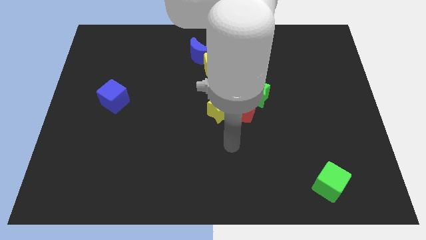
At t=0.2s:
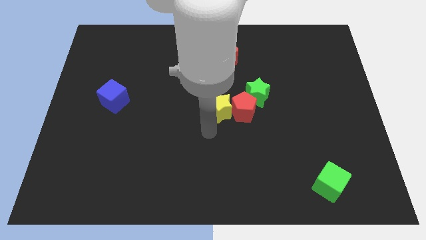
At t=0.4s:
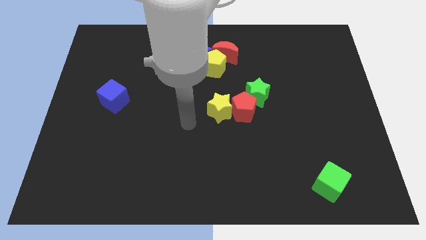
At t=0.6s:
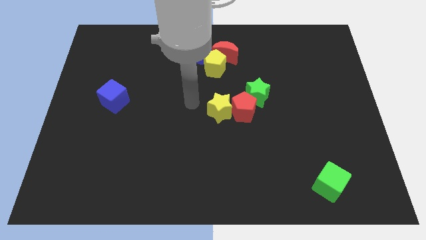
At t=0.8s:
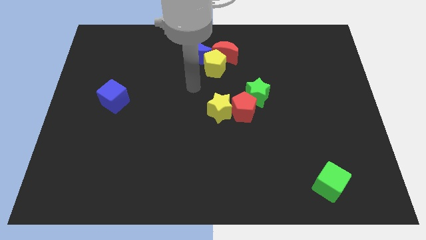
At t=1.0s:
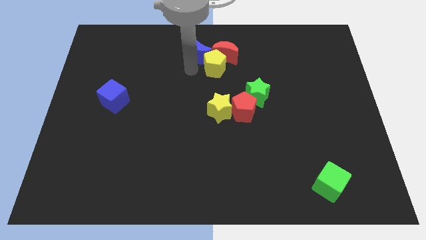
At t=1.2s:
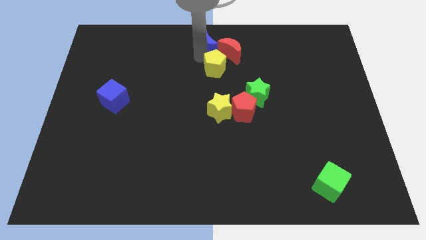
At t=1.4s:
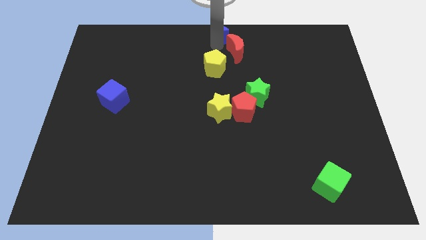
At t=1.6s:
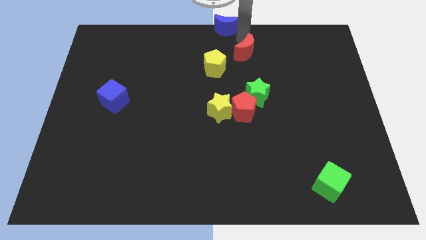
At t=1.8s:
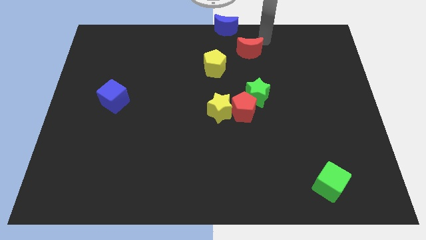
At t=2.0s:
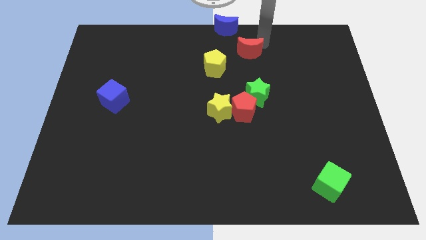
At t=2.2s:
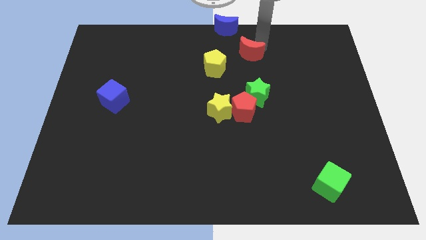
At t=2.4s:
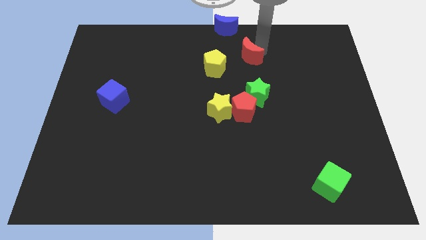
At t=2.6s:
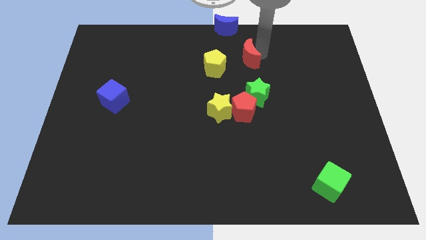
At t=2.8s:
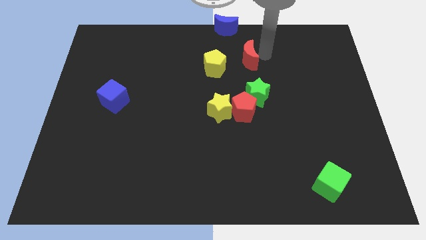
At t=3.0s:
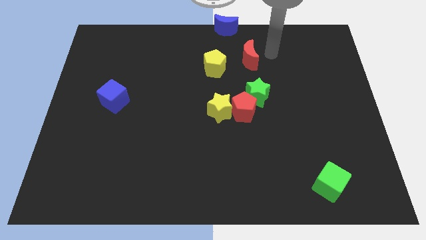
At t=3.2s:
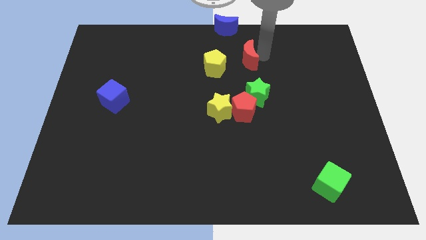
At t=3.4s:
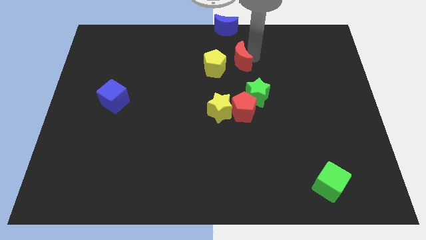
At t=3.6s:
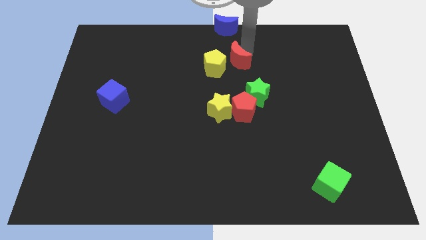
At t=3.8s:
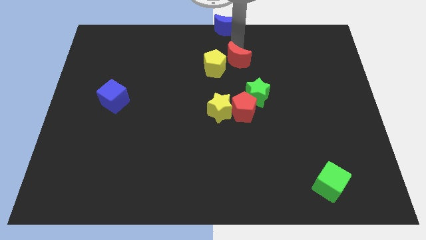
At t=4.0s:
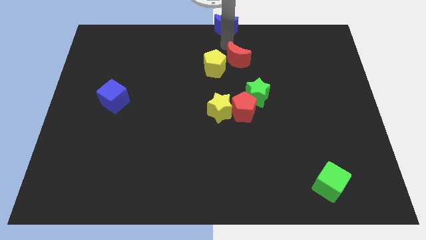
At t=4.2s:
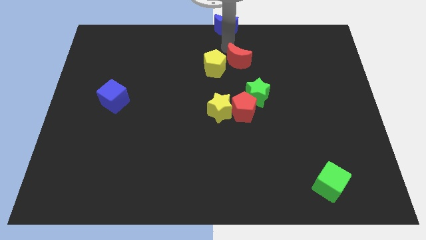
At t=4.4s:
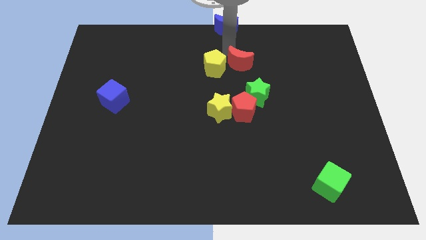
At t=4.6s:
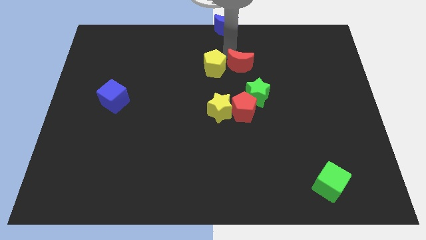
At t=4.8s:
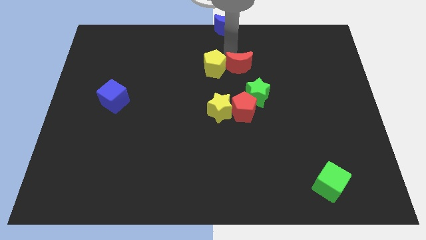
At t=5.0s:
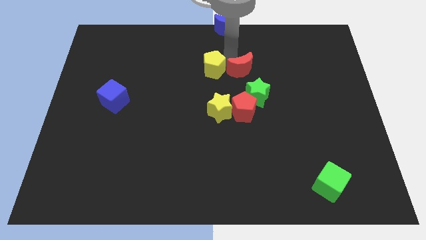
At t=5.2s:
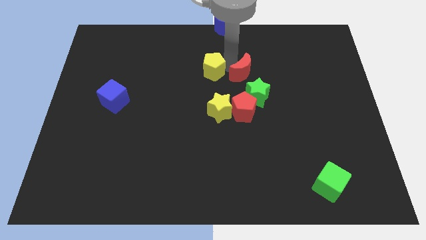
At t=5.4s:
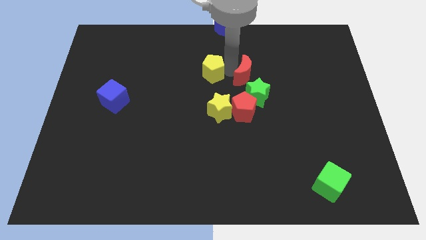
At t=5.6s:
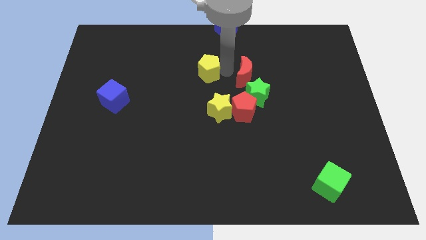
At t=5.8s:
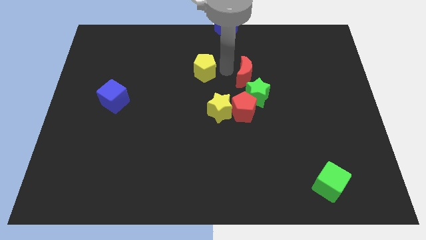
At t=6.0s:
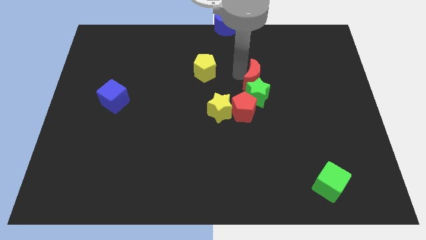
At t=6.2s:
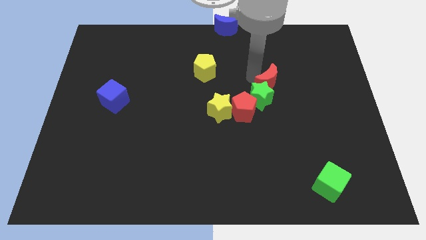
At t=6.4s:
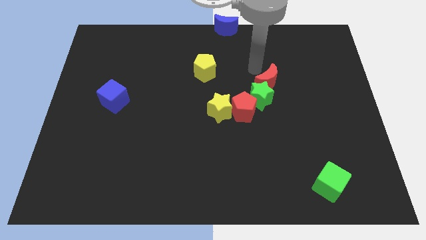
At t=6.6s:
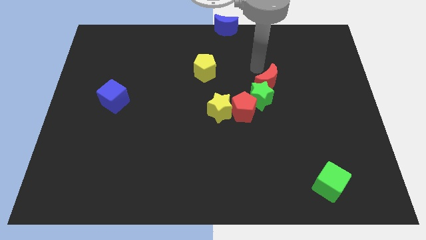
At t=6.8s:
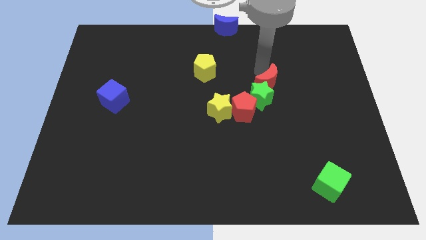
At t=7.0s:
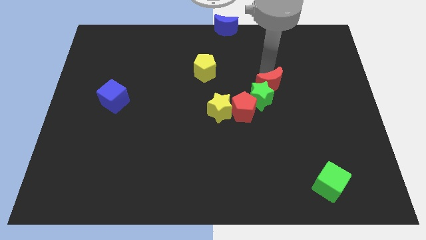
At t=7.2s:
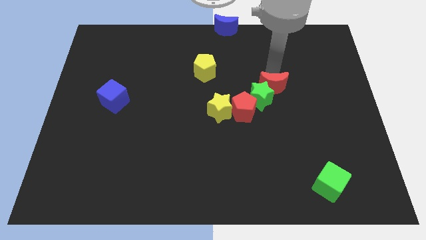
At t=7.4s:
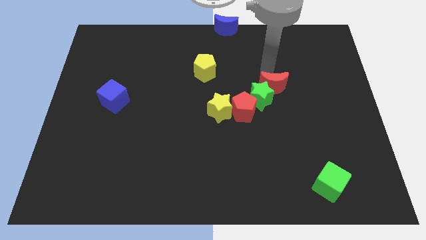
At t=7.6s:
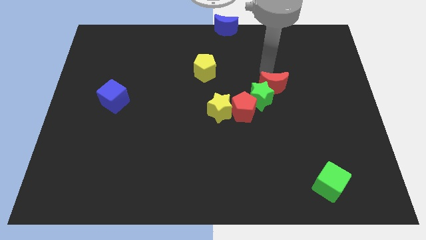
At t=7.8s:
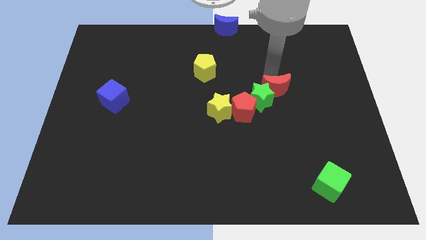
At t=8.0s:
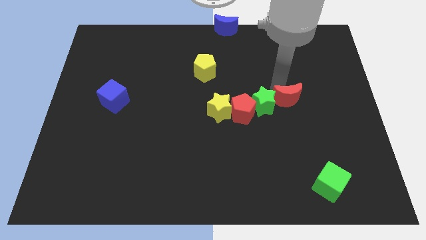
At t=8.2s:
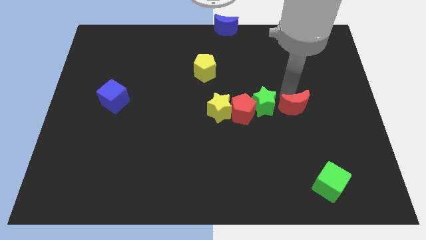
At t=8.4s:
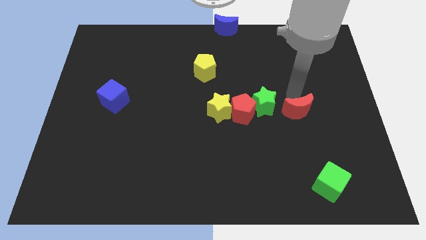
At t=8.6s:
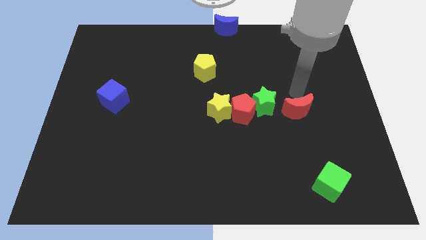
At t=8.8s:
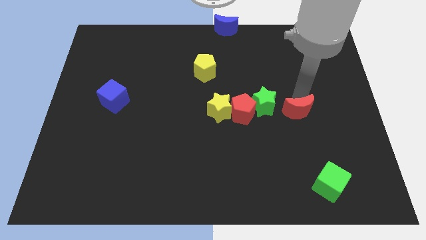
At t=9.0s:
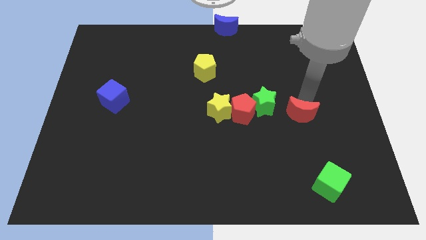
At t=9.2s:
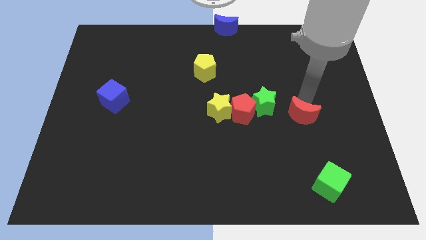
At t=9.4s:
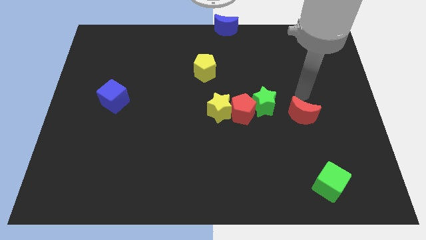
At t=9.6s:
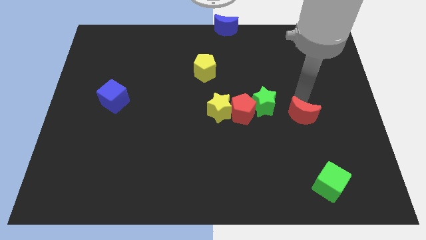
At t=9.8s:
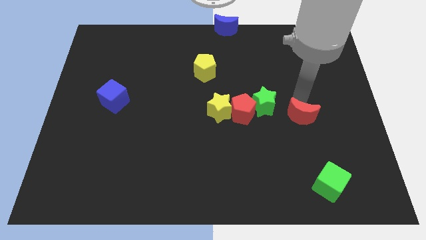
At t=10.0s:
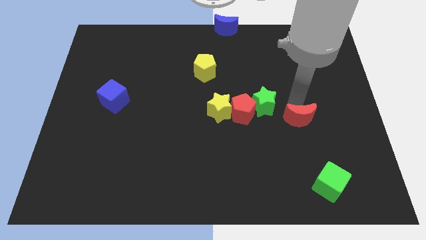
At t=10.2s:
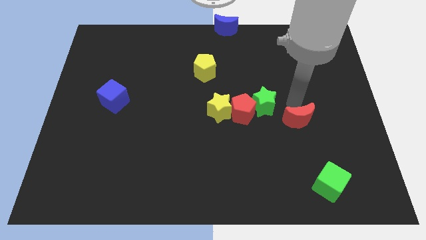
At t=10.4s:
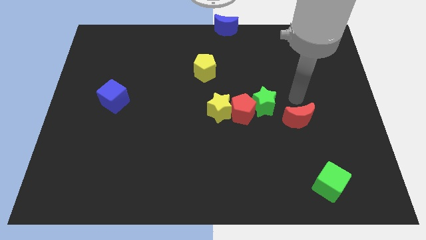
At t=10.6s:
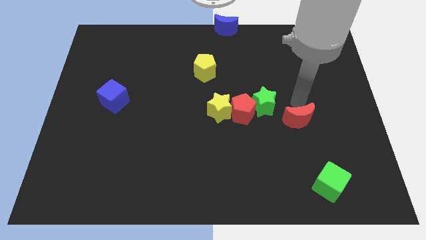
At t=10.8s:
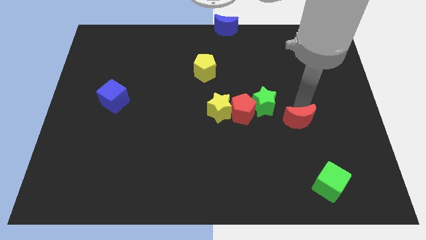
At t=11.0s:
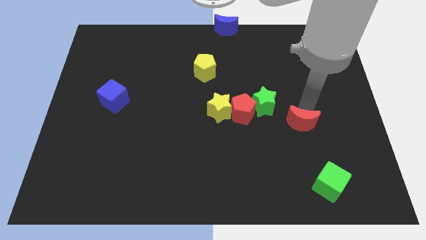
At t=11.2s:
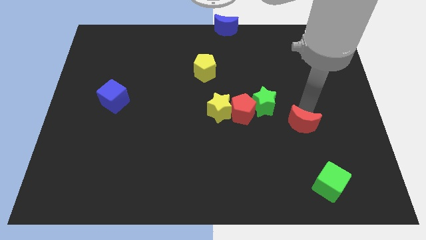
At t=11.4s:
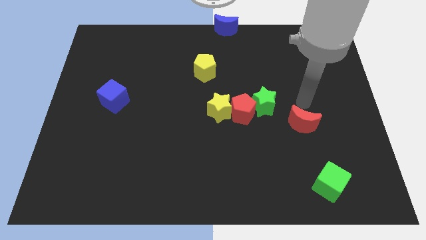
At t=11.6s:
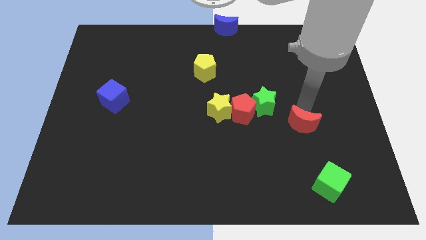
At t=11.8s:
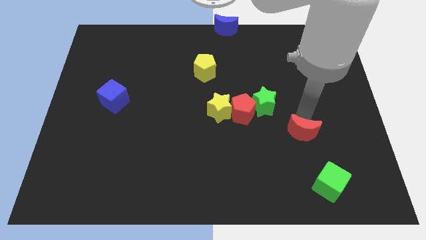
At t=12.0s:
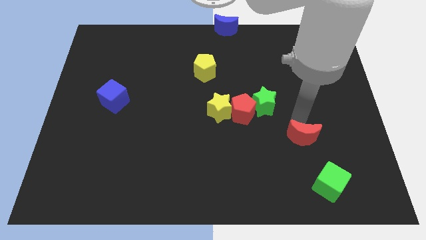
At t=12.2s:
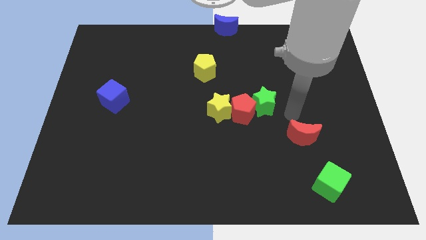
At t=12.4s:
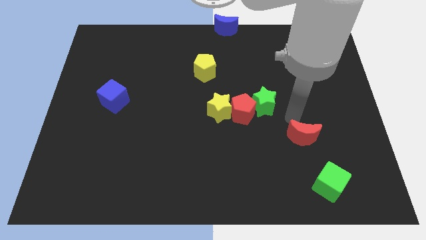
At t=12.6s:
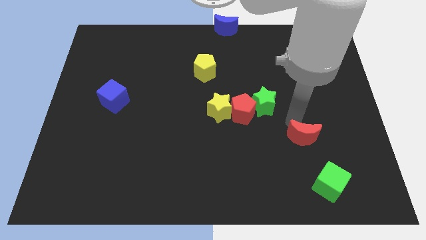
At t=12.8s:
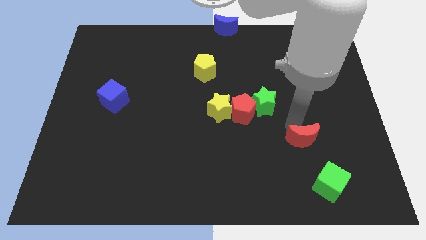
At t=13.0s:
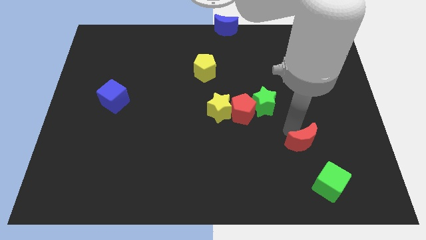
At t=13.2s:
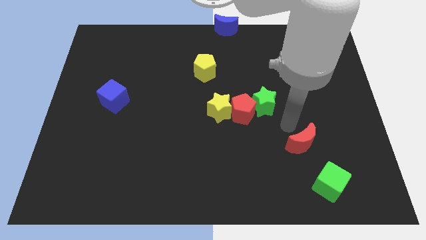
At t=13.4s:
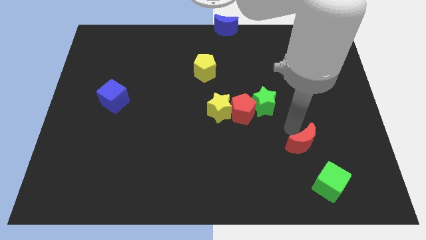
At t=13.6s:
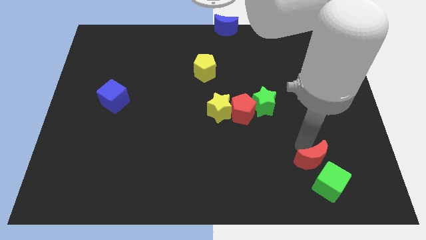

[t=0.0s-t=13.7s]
put the red moon close to the green cube

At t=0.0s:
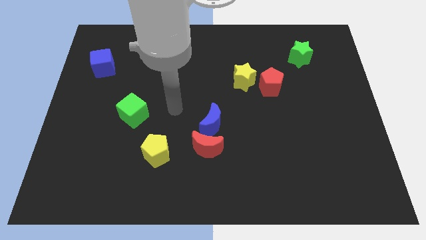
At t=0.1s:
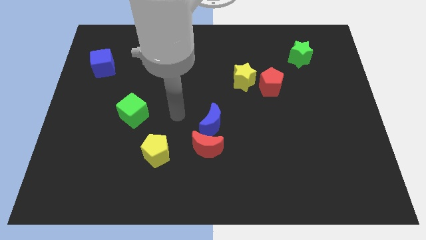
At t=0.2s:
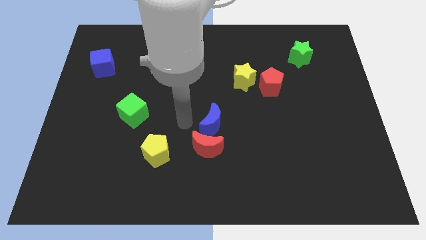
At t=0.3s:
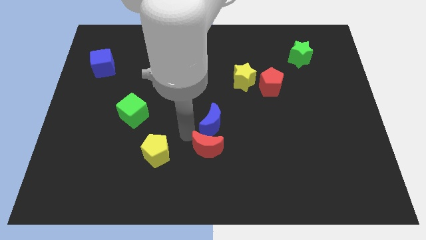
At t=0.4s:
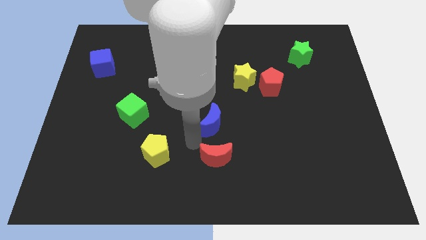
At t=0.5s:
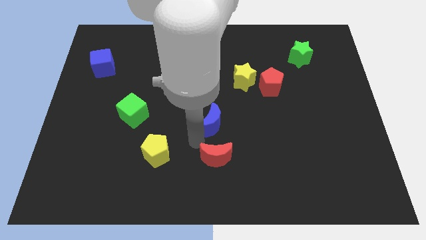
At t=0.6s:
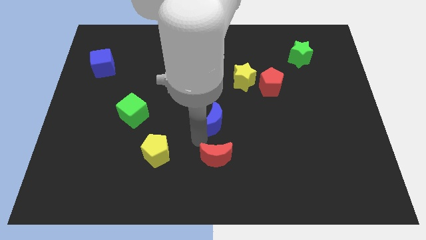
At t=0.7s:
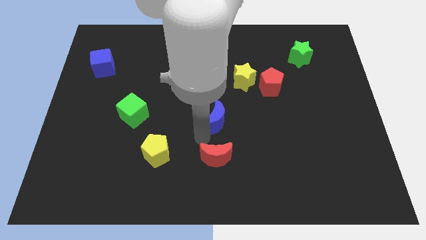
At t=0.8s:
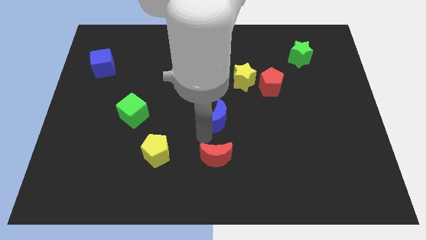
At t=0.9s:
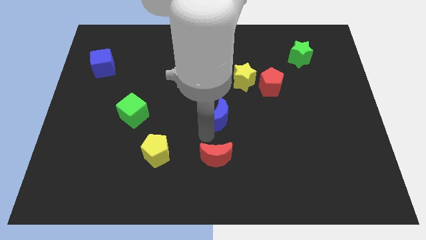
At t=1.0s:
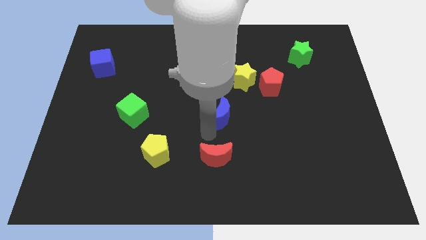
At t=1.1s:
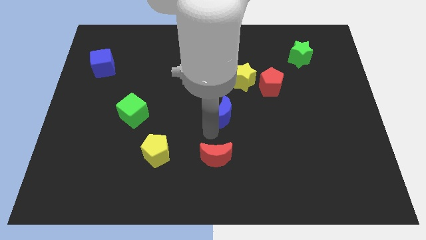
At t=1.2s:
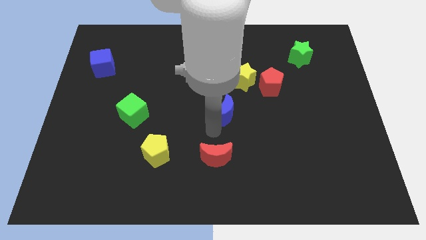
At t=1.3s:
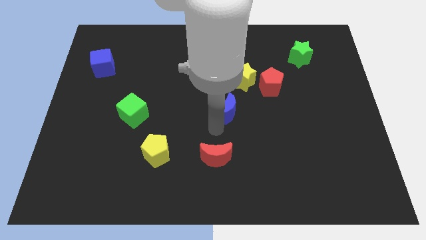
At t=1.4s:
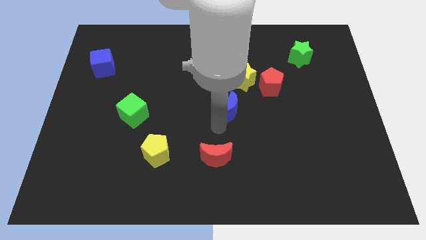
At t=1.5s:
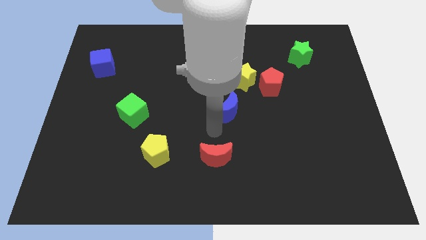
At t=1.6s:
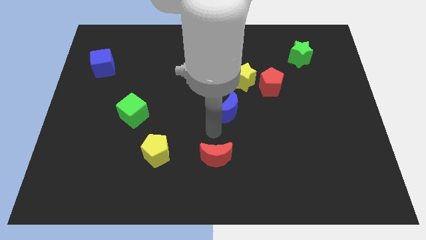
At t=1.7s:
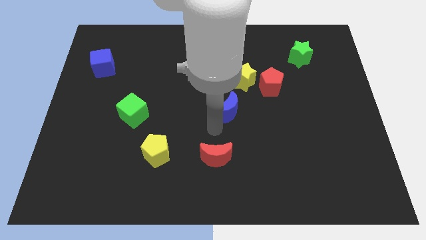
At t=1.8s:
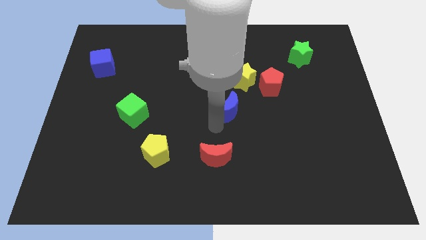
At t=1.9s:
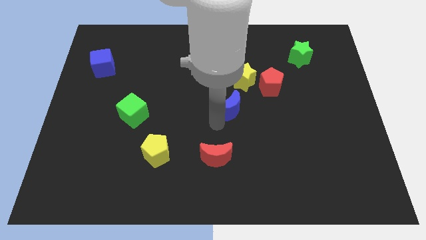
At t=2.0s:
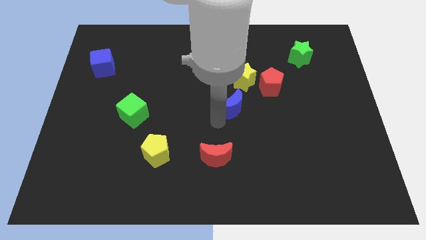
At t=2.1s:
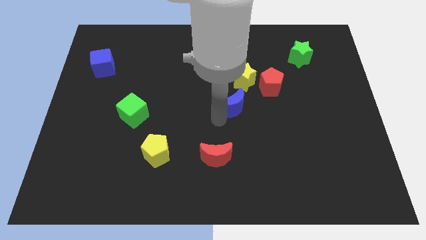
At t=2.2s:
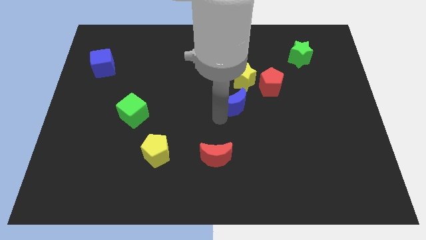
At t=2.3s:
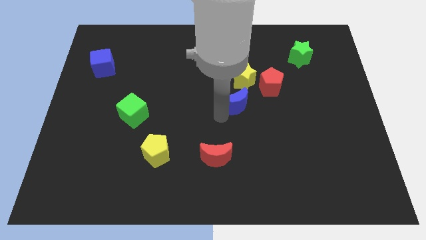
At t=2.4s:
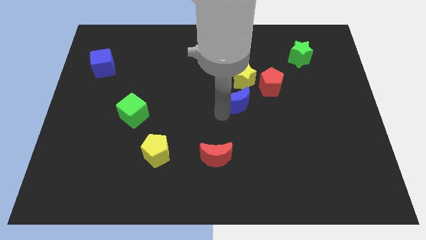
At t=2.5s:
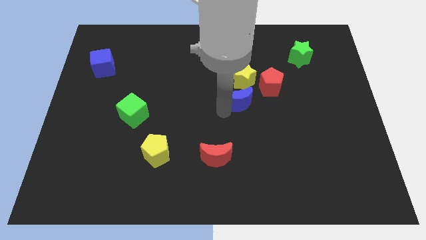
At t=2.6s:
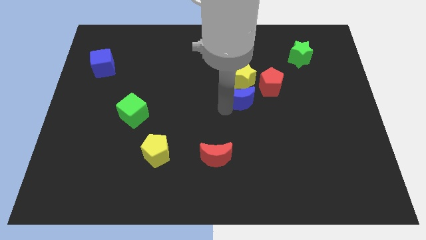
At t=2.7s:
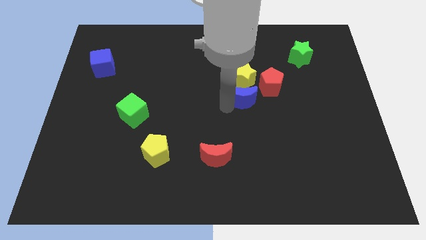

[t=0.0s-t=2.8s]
push the blue moon towards the yellow star
